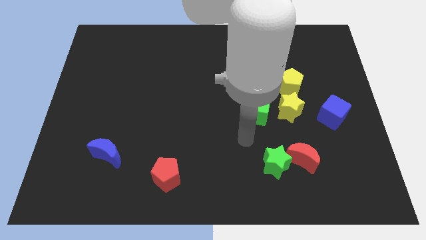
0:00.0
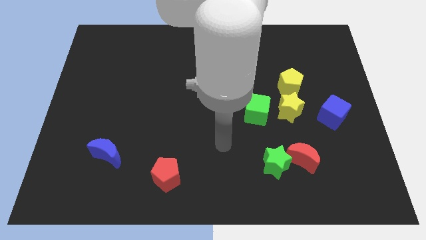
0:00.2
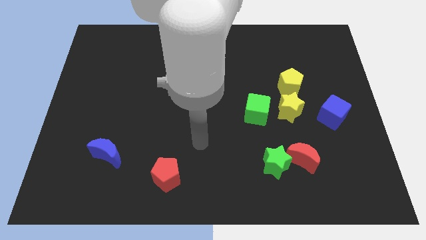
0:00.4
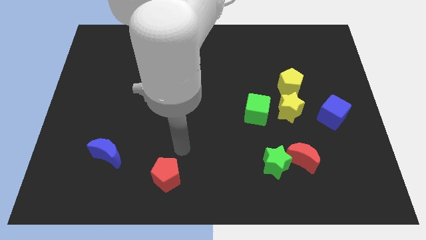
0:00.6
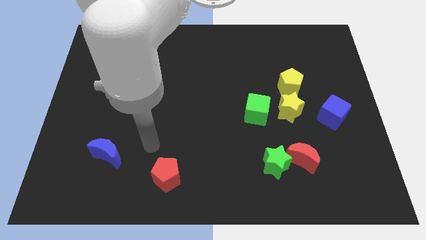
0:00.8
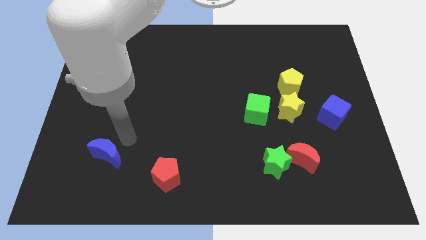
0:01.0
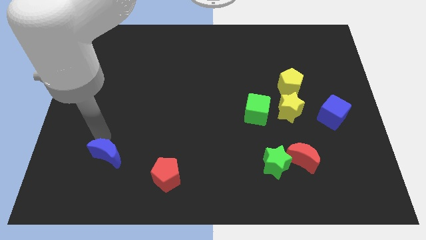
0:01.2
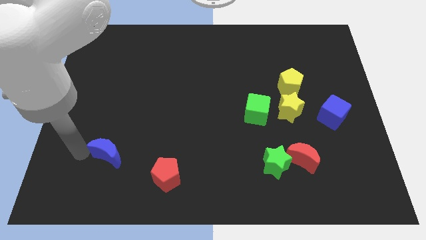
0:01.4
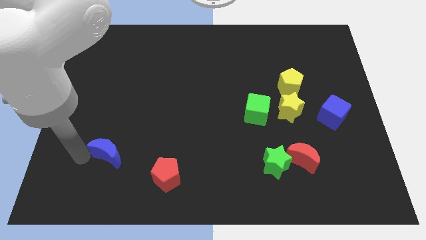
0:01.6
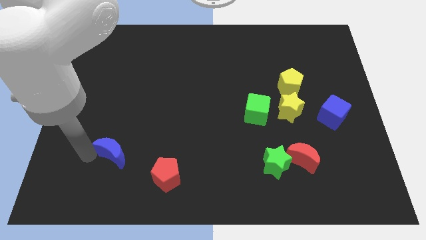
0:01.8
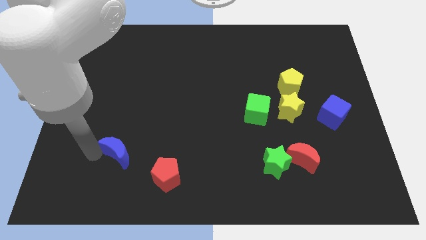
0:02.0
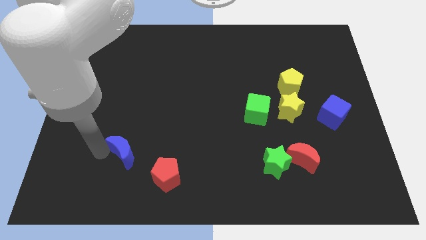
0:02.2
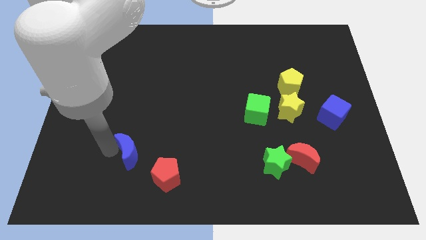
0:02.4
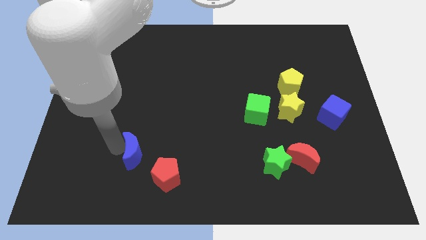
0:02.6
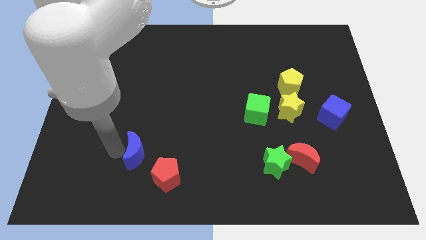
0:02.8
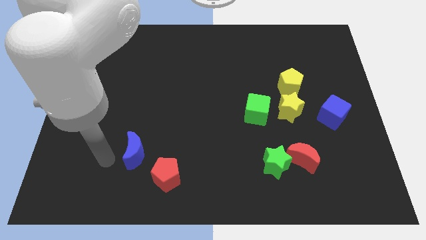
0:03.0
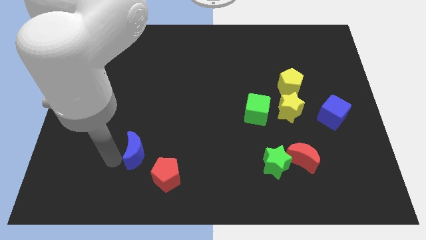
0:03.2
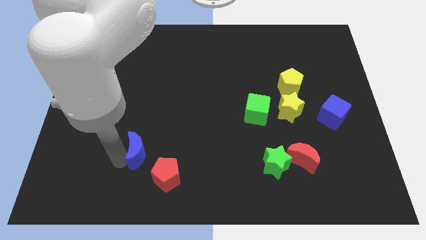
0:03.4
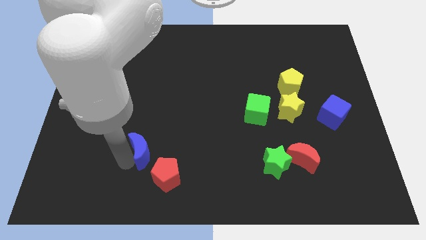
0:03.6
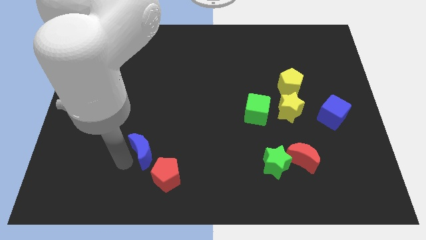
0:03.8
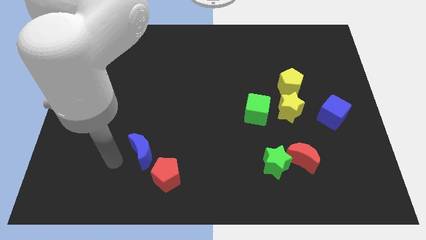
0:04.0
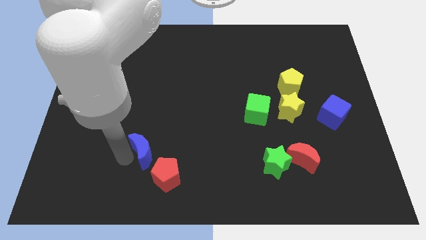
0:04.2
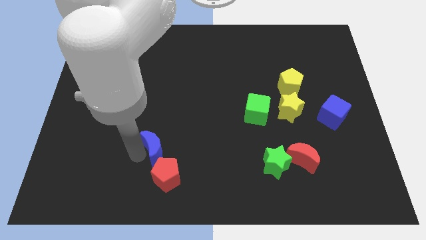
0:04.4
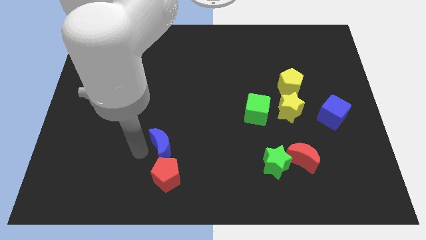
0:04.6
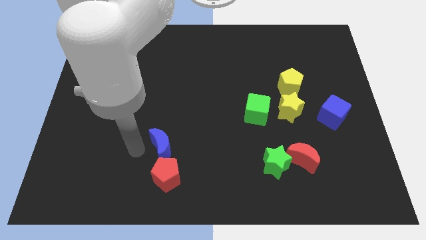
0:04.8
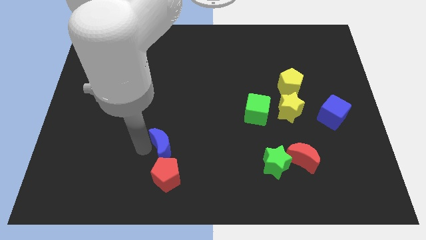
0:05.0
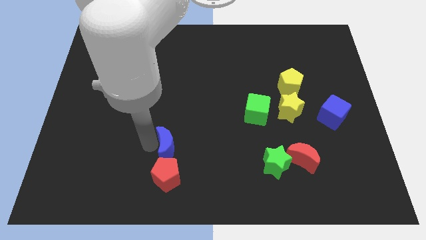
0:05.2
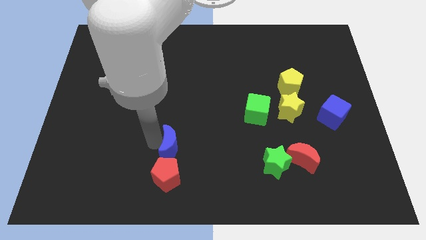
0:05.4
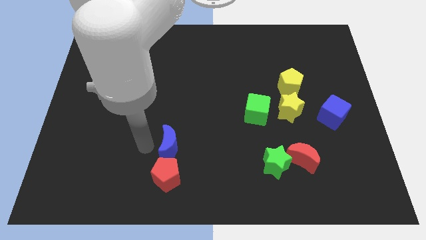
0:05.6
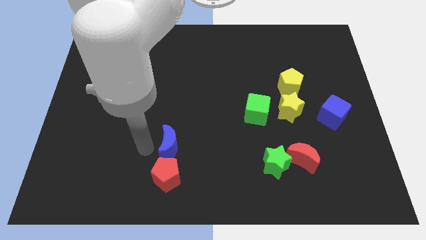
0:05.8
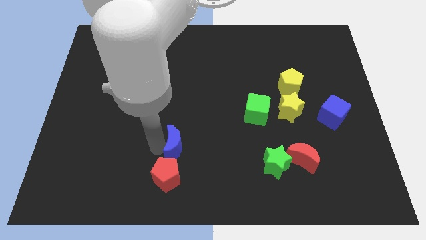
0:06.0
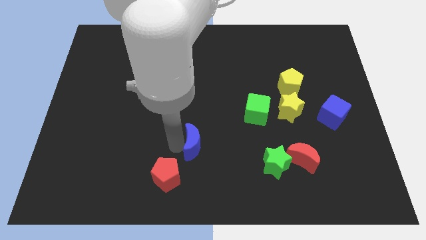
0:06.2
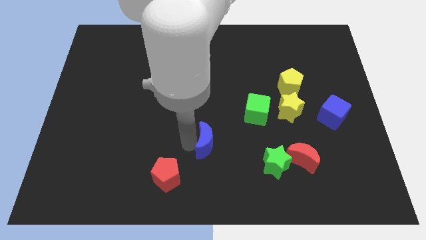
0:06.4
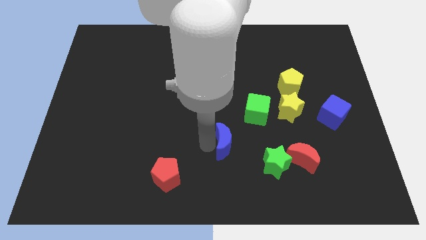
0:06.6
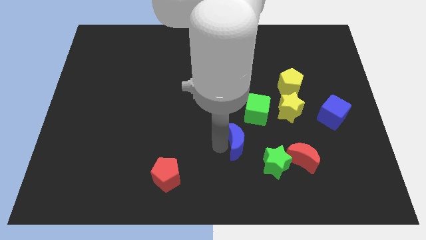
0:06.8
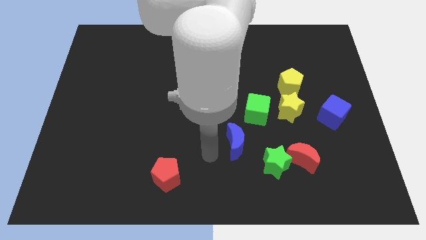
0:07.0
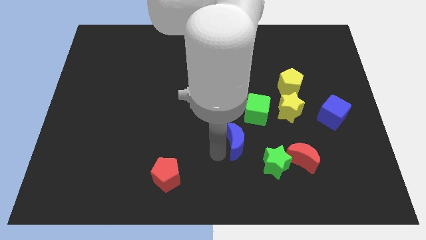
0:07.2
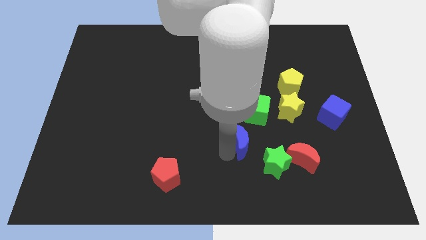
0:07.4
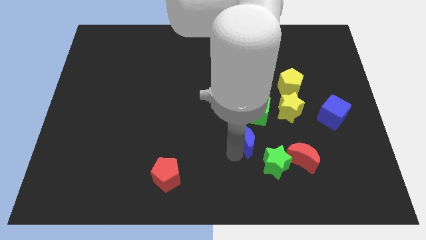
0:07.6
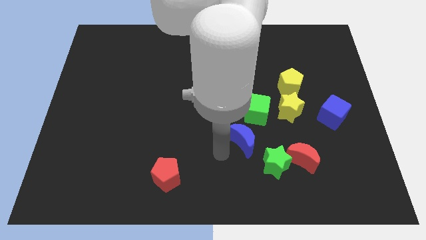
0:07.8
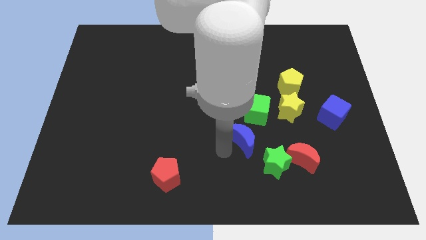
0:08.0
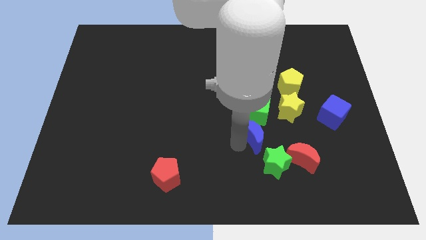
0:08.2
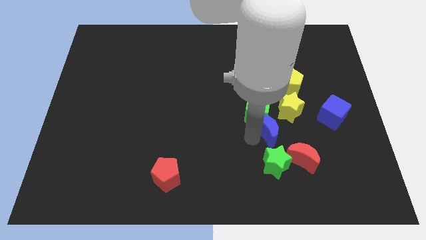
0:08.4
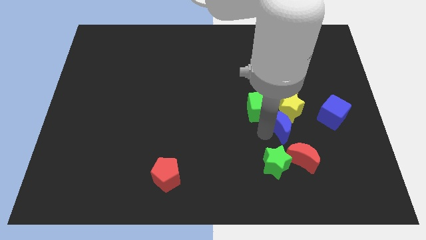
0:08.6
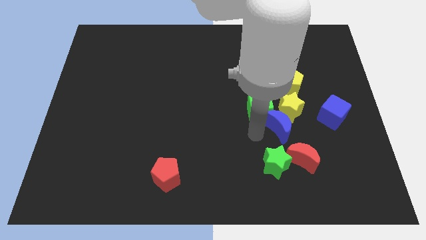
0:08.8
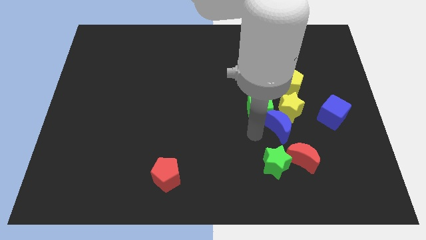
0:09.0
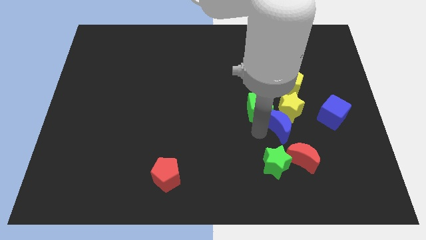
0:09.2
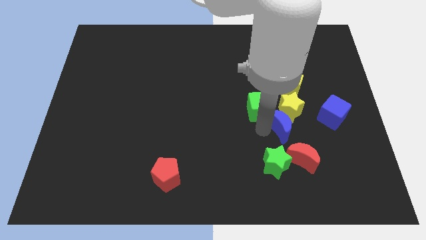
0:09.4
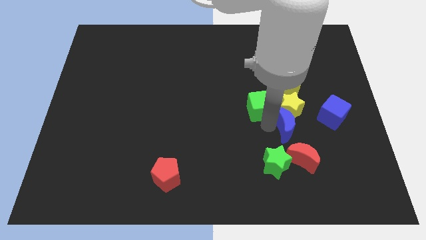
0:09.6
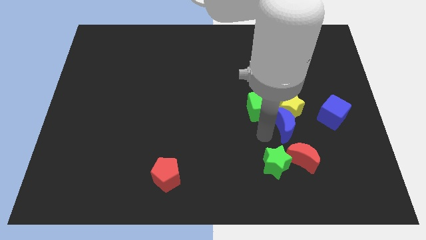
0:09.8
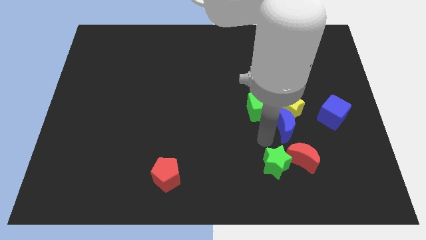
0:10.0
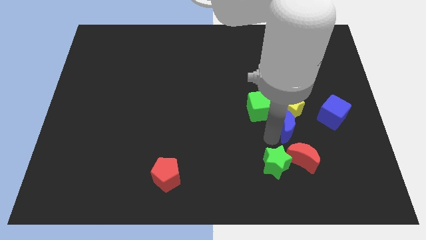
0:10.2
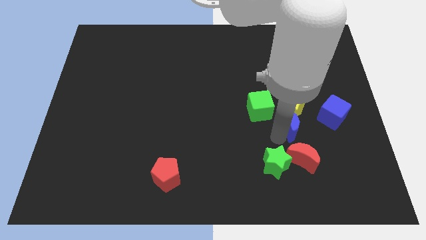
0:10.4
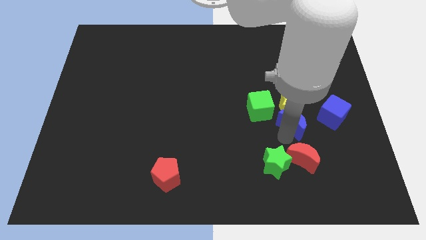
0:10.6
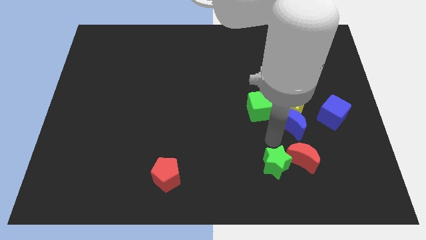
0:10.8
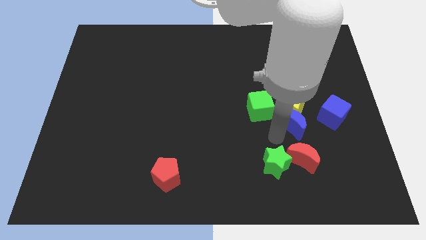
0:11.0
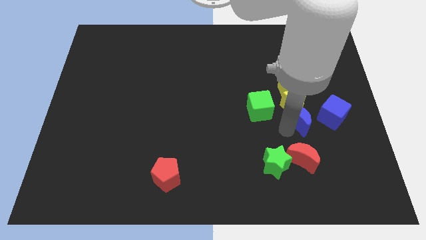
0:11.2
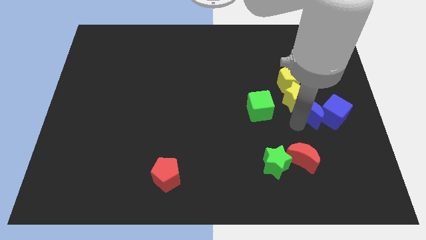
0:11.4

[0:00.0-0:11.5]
move the blue moon to the bottom right of the yellow pentagon

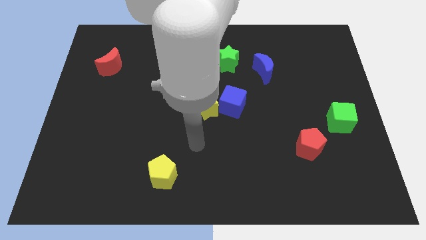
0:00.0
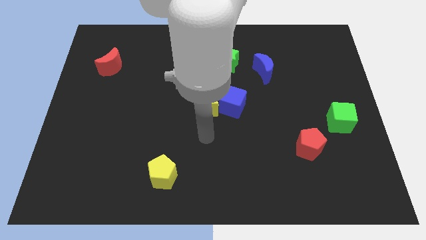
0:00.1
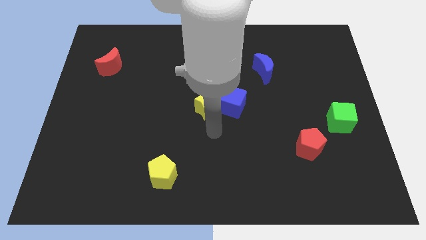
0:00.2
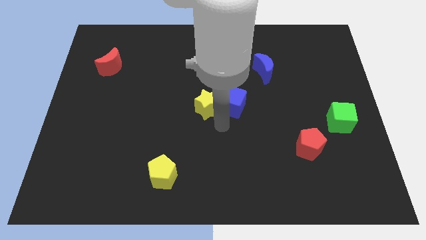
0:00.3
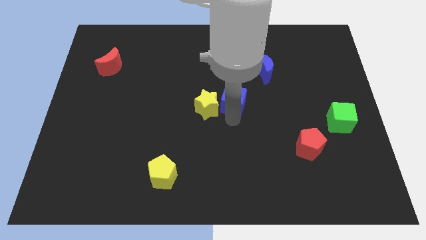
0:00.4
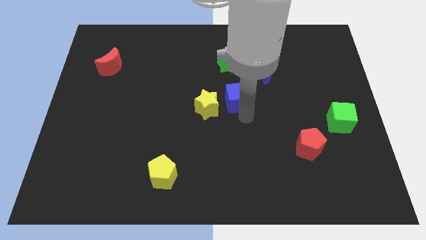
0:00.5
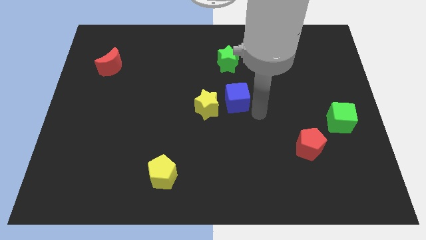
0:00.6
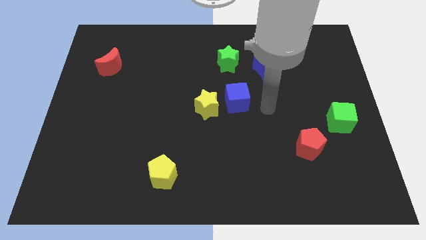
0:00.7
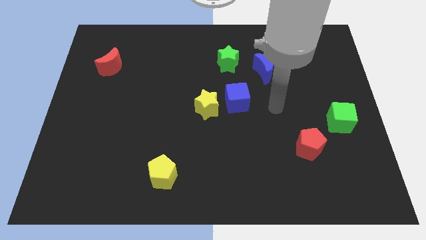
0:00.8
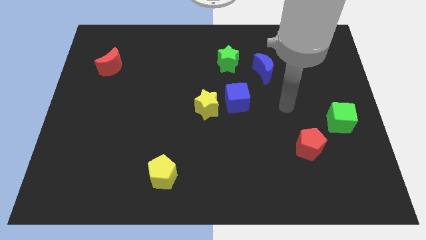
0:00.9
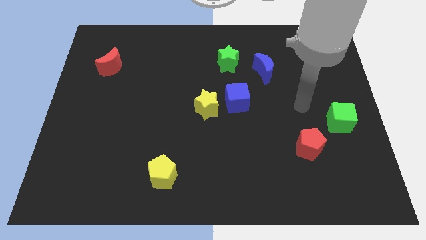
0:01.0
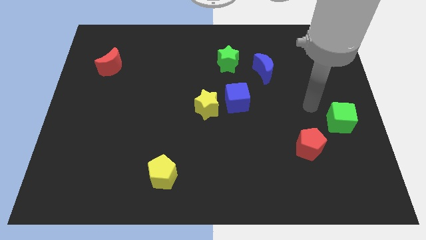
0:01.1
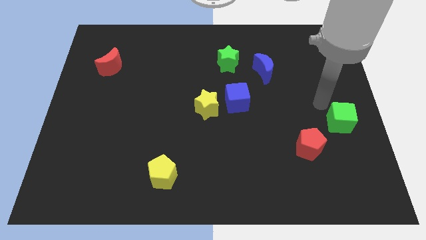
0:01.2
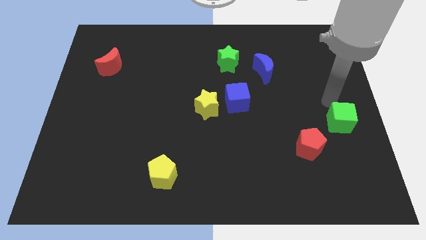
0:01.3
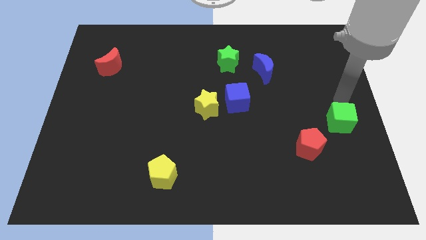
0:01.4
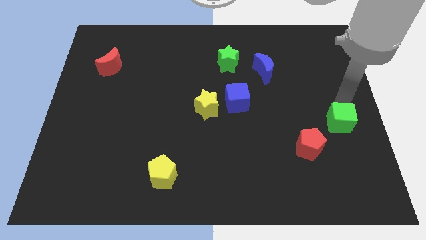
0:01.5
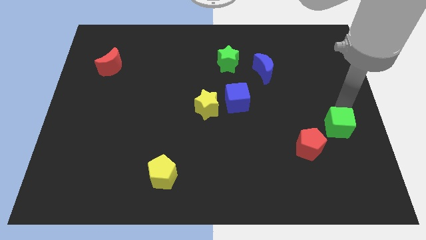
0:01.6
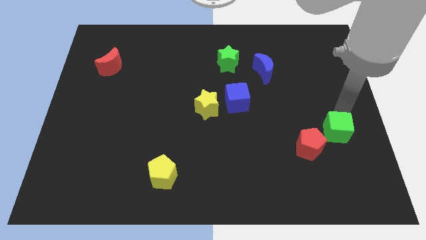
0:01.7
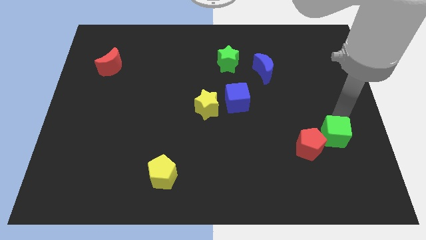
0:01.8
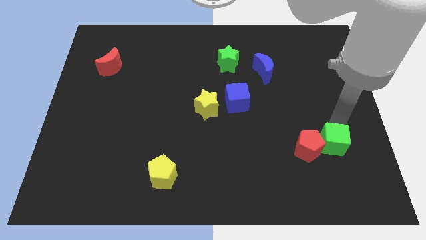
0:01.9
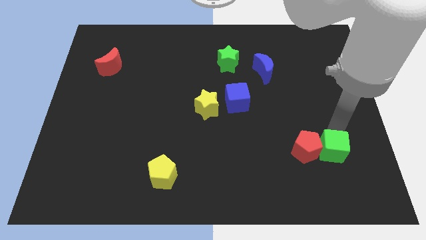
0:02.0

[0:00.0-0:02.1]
put the green cube to the bottom right of the red pentagon

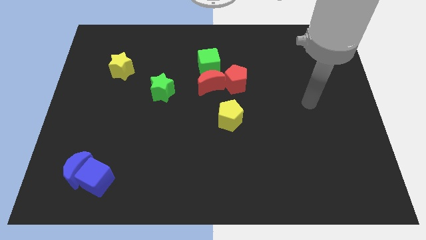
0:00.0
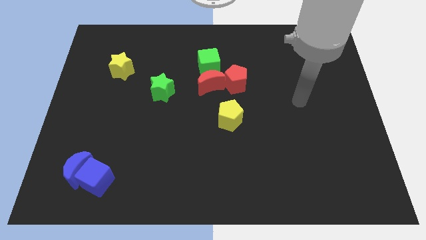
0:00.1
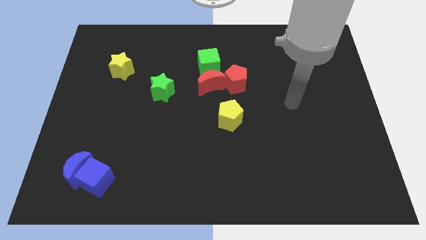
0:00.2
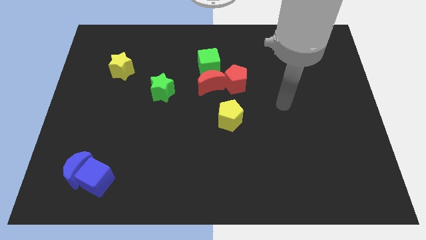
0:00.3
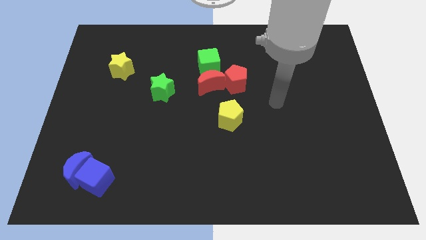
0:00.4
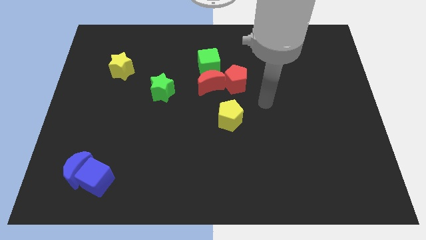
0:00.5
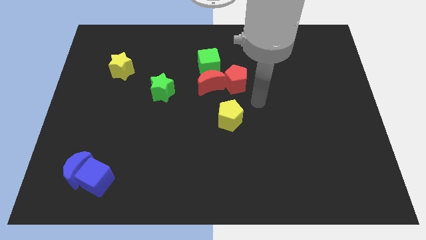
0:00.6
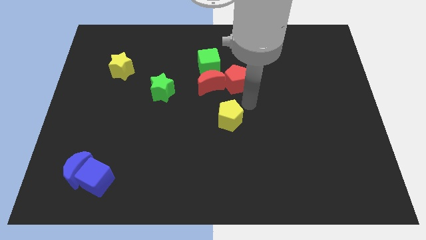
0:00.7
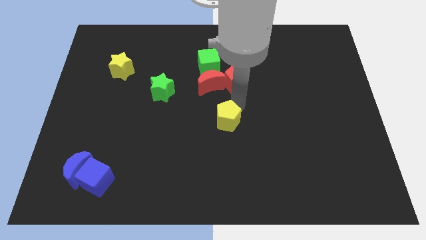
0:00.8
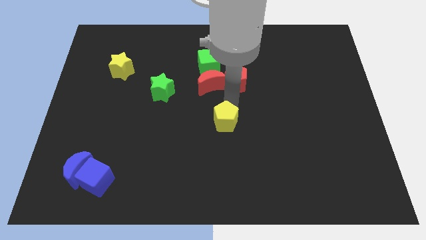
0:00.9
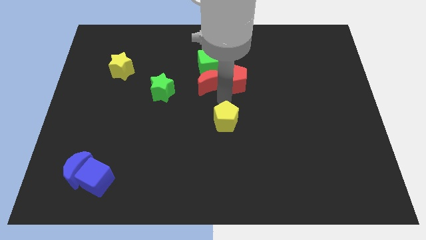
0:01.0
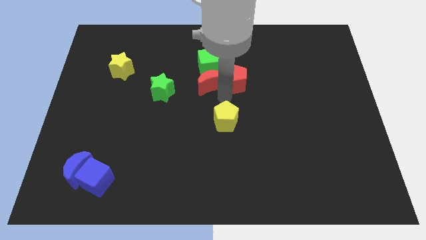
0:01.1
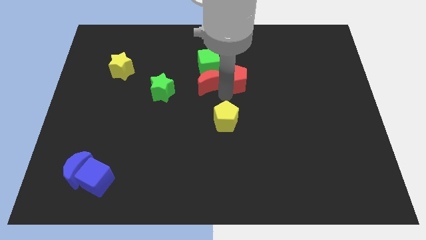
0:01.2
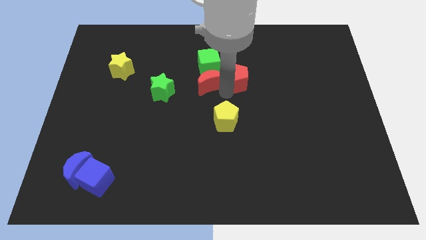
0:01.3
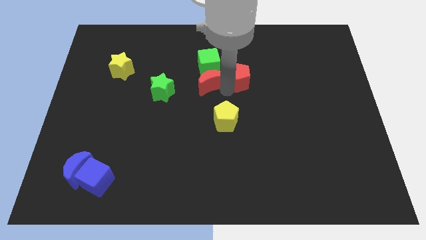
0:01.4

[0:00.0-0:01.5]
slide the red pentagon just right of the green cube
